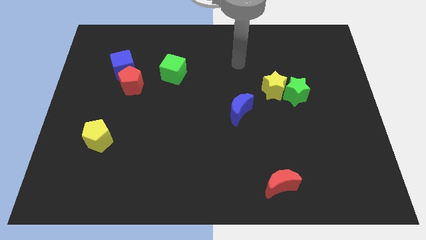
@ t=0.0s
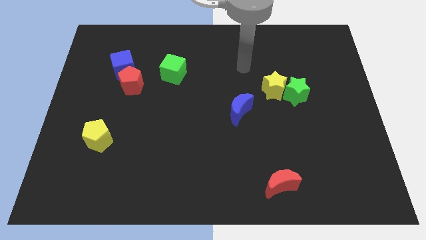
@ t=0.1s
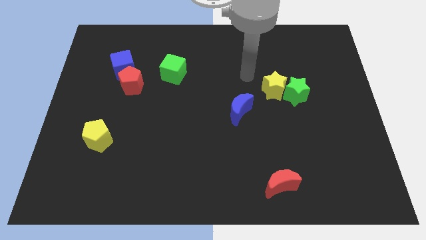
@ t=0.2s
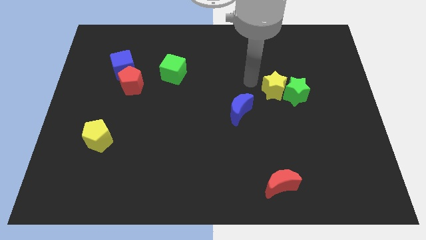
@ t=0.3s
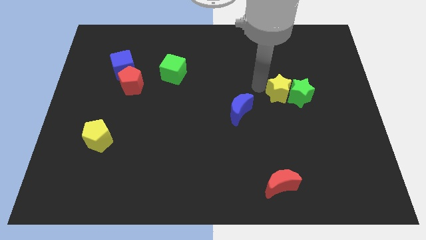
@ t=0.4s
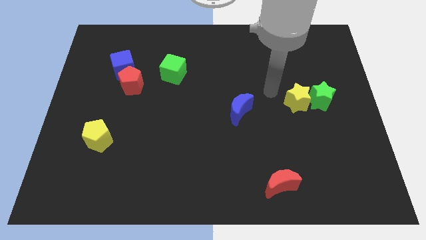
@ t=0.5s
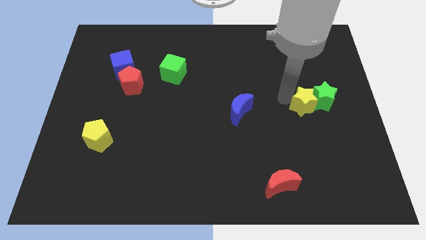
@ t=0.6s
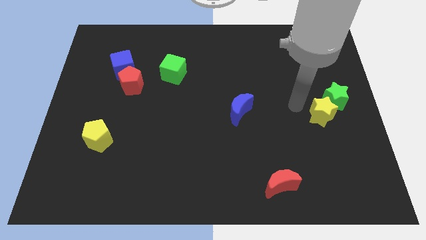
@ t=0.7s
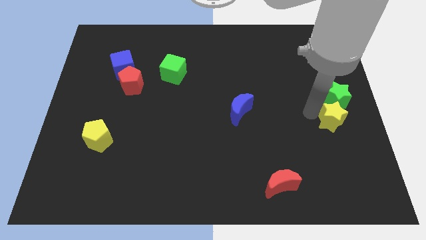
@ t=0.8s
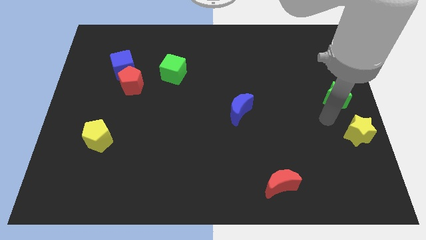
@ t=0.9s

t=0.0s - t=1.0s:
pull the green star apart from the yellow star

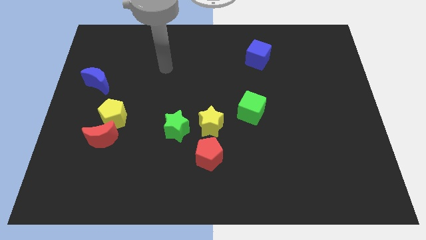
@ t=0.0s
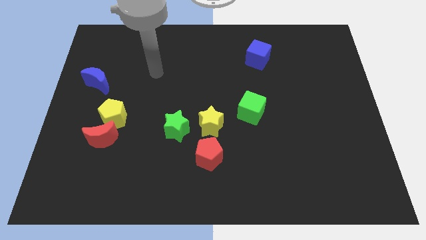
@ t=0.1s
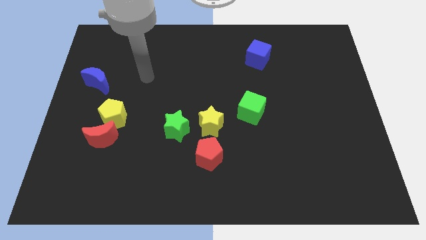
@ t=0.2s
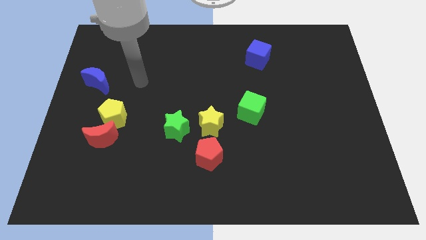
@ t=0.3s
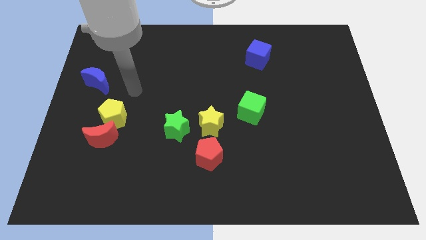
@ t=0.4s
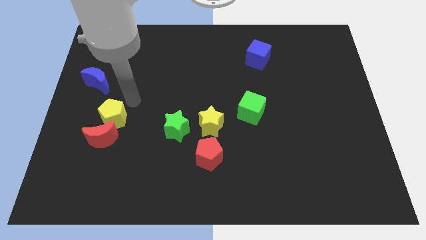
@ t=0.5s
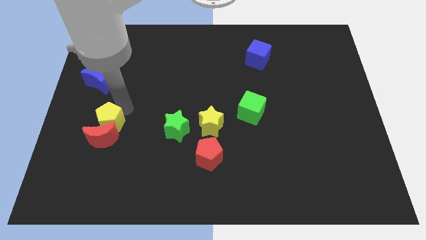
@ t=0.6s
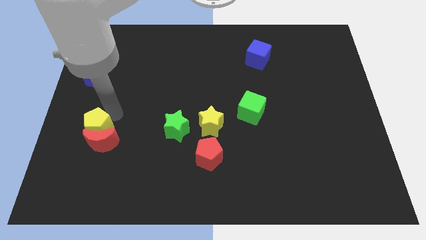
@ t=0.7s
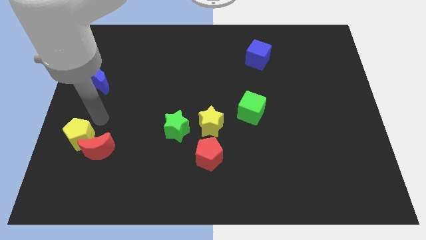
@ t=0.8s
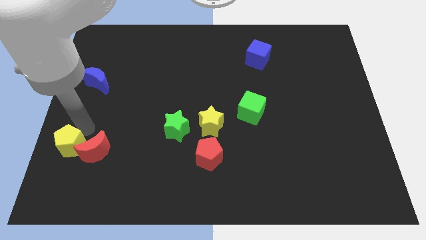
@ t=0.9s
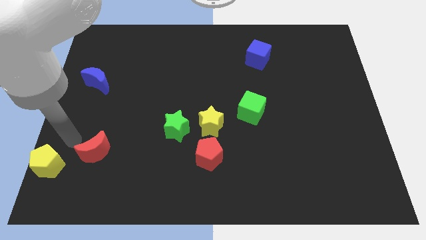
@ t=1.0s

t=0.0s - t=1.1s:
pull the red moon apart from the yellow pentagon

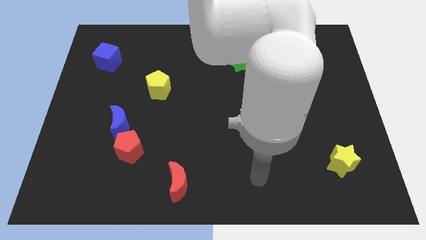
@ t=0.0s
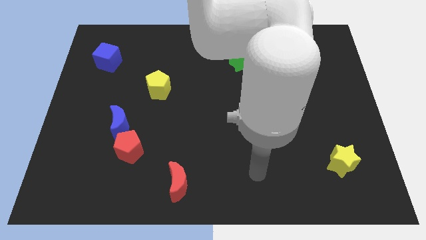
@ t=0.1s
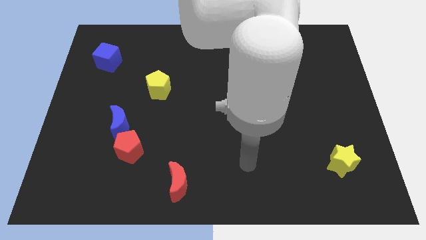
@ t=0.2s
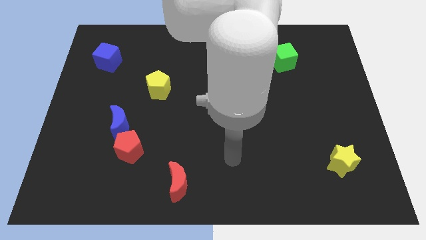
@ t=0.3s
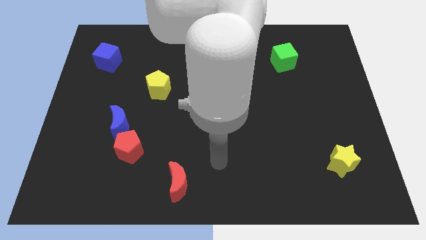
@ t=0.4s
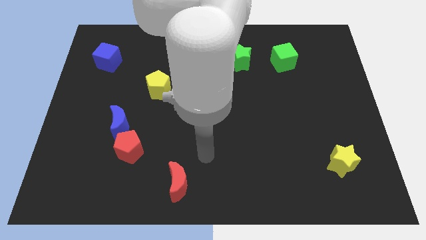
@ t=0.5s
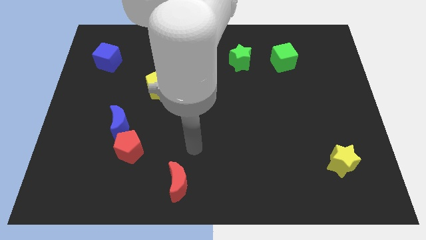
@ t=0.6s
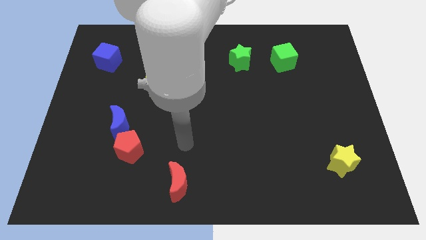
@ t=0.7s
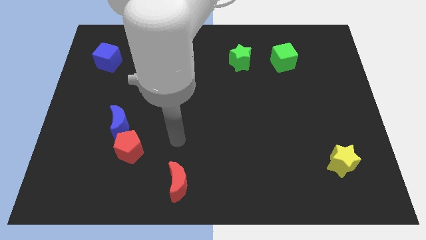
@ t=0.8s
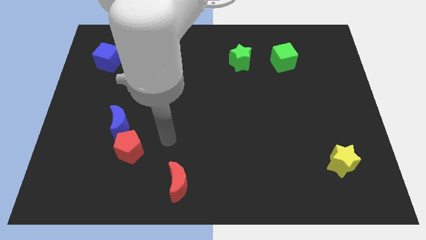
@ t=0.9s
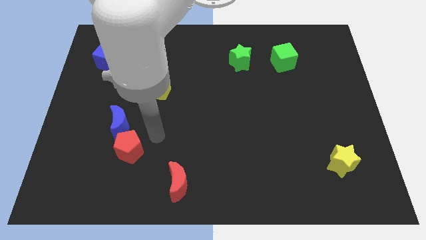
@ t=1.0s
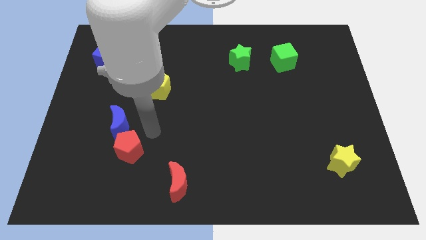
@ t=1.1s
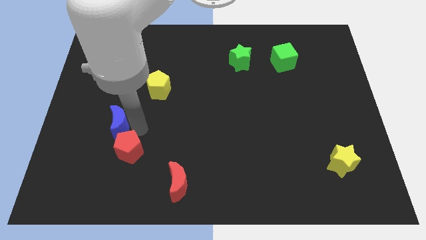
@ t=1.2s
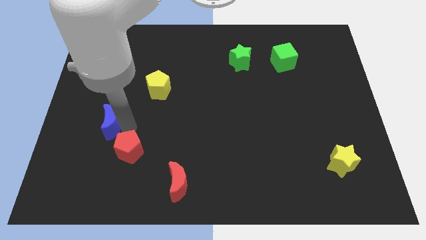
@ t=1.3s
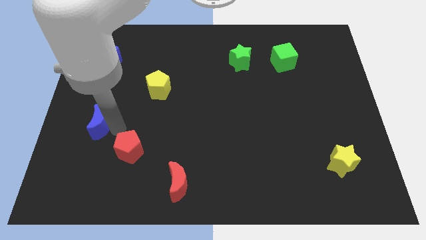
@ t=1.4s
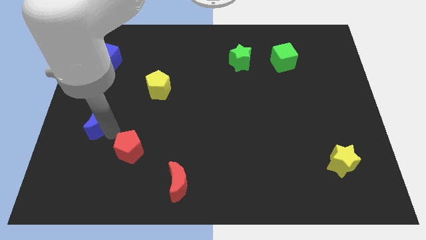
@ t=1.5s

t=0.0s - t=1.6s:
move the red pentagon away from the blue moon

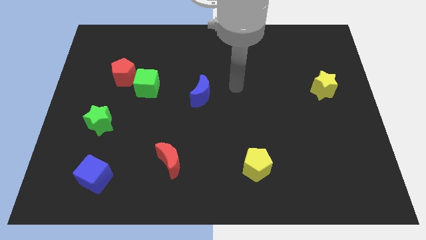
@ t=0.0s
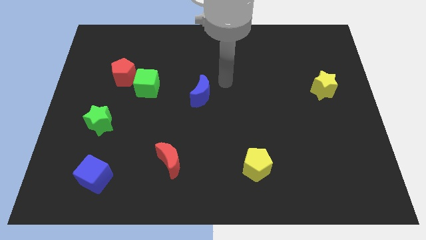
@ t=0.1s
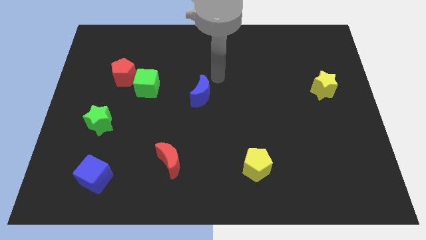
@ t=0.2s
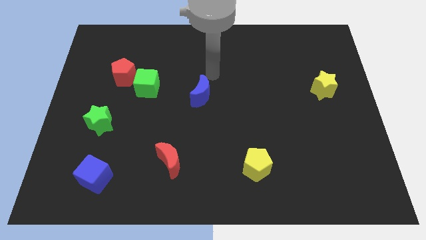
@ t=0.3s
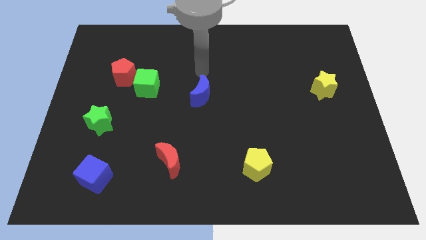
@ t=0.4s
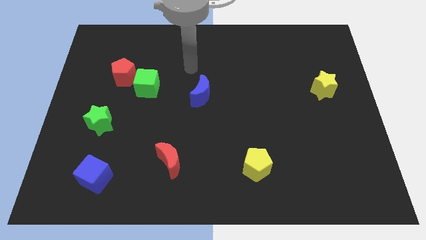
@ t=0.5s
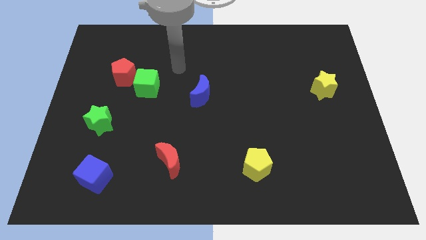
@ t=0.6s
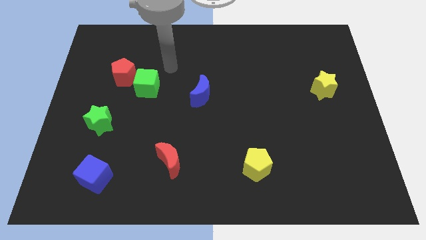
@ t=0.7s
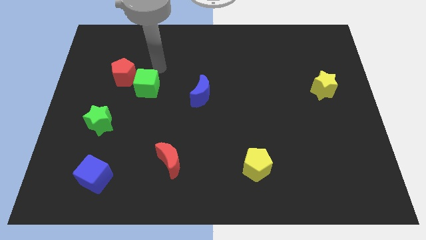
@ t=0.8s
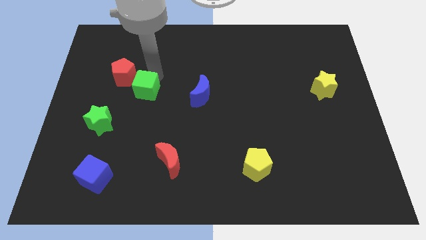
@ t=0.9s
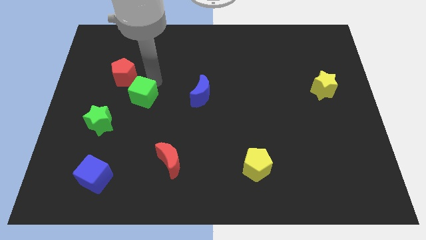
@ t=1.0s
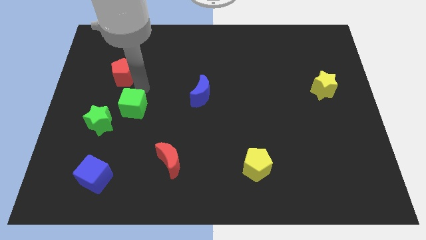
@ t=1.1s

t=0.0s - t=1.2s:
separate the red pentagon from the green cube

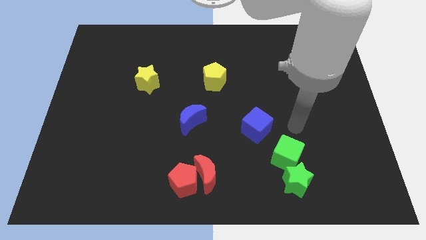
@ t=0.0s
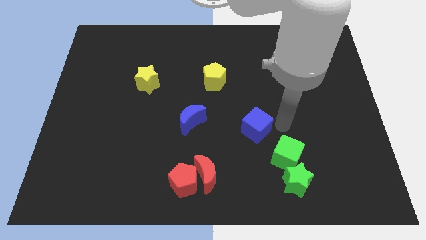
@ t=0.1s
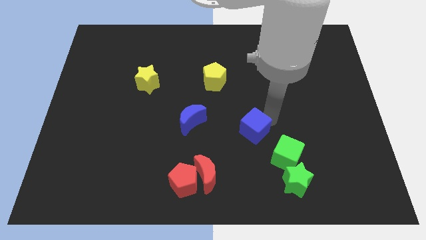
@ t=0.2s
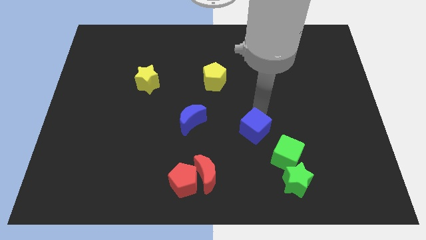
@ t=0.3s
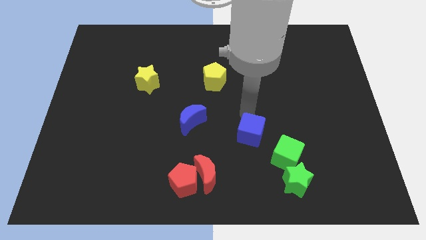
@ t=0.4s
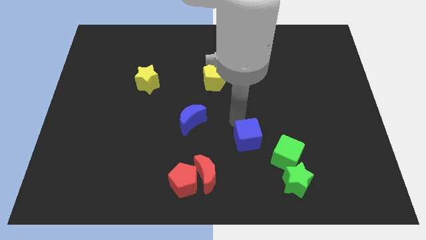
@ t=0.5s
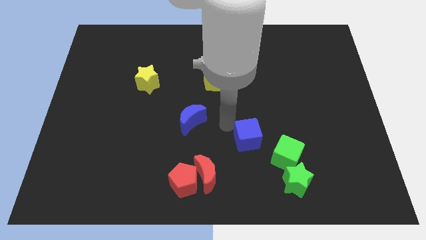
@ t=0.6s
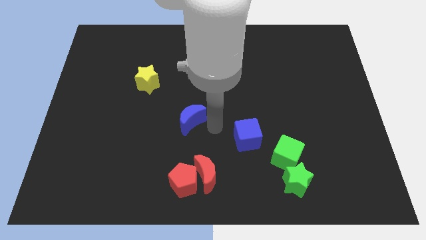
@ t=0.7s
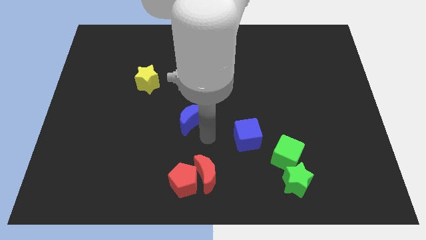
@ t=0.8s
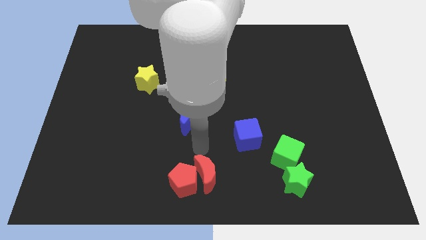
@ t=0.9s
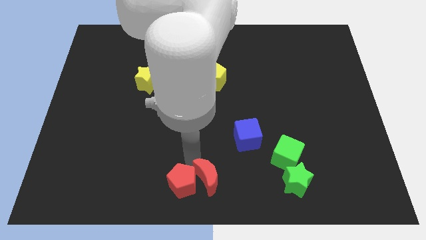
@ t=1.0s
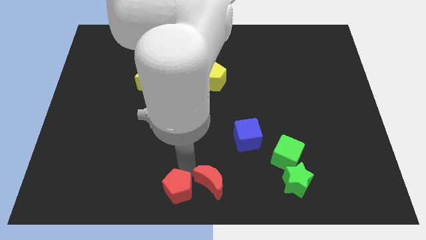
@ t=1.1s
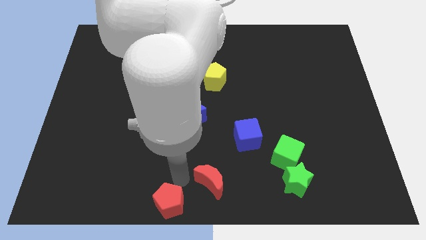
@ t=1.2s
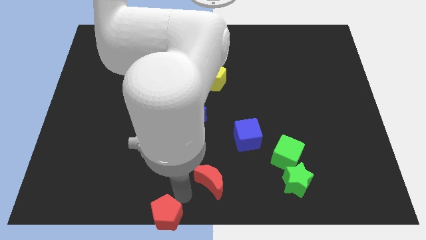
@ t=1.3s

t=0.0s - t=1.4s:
separate the red moon from the red pentagon

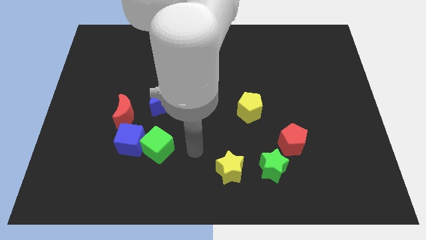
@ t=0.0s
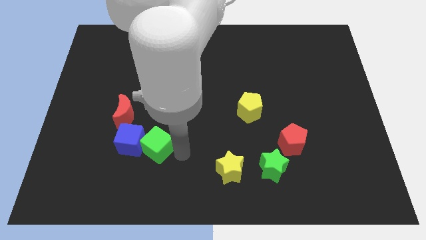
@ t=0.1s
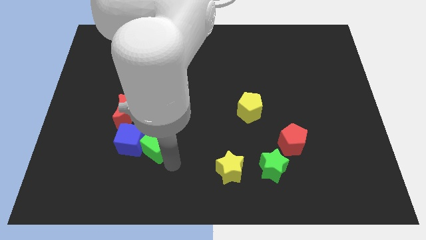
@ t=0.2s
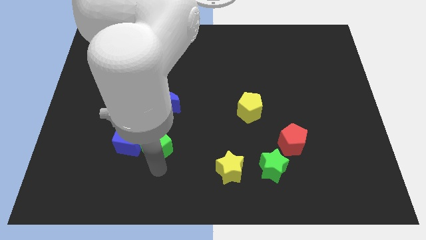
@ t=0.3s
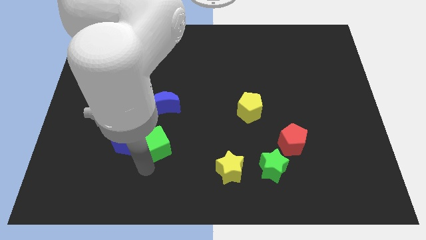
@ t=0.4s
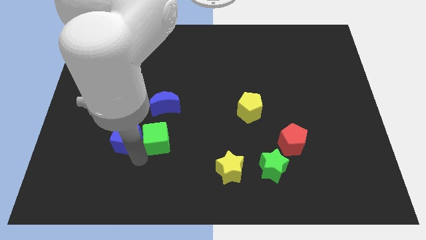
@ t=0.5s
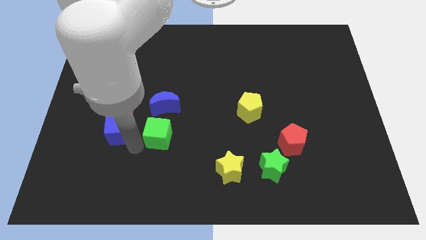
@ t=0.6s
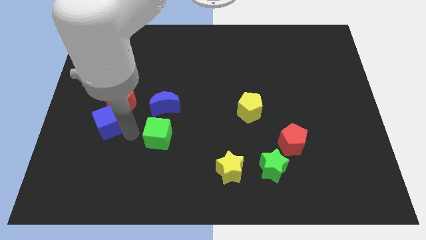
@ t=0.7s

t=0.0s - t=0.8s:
move the green cube away from the blue cube

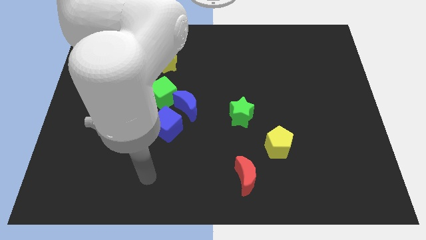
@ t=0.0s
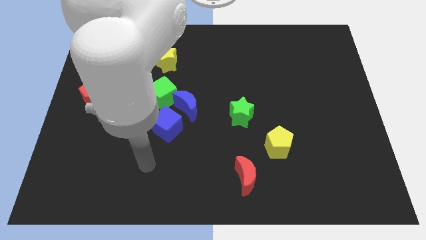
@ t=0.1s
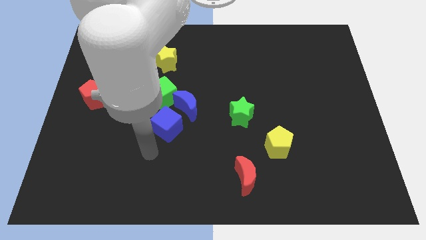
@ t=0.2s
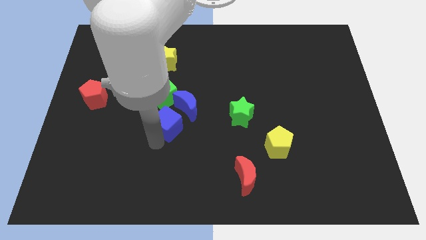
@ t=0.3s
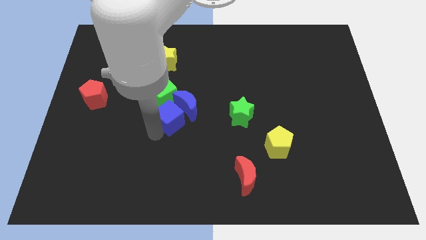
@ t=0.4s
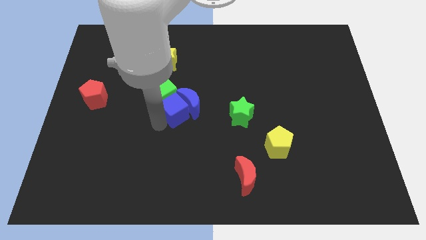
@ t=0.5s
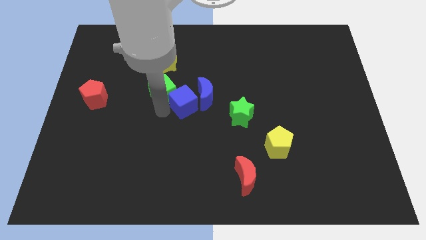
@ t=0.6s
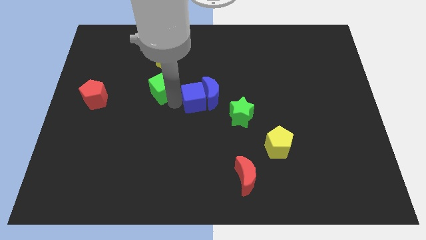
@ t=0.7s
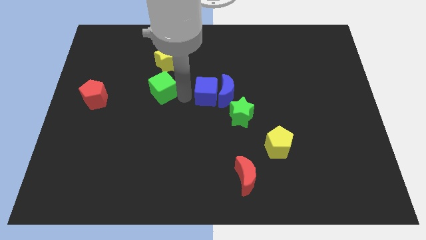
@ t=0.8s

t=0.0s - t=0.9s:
separate the blue moon from the green cube and blue cube

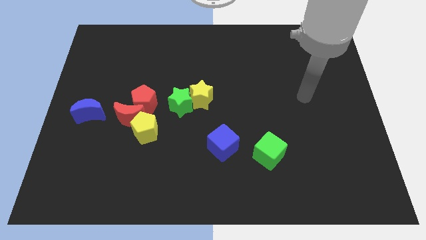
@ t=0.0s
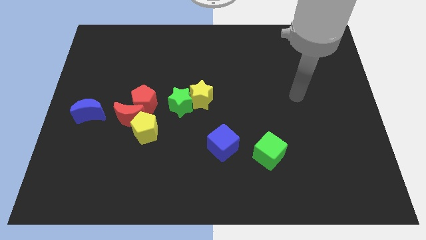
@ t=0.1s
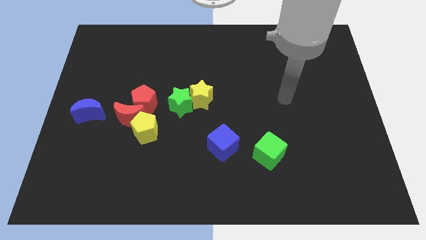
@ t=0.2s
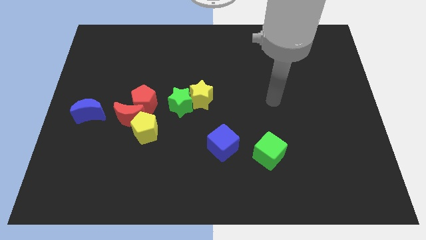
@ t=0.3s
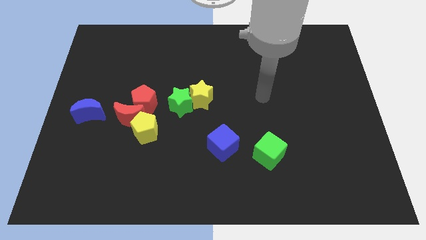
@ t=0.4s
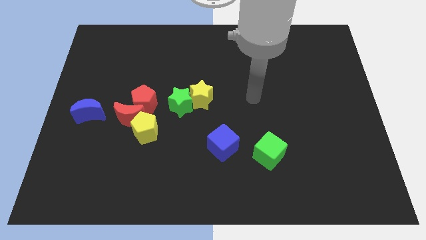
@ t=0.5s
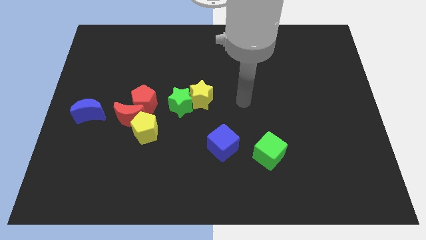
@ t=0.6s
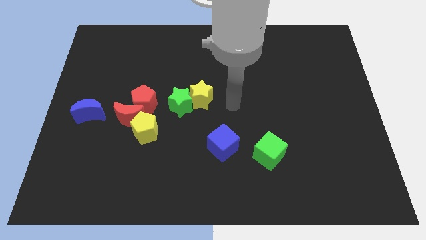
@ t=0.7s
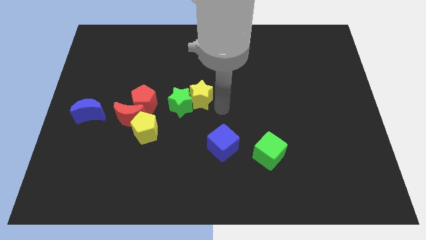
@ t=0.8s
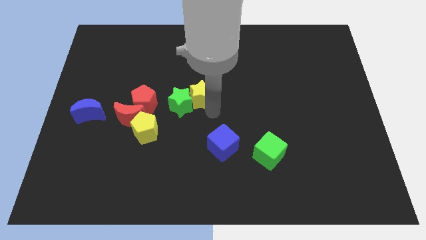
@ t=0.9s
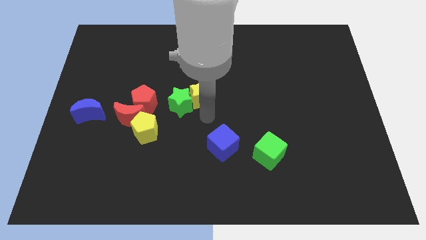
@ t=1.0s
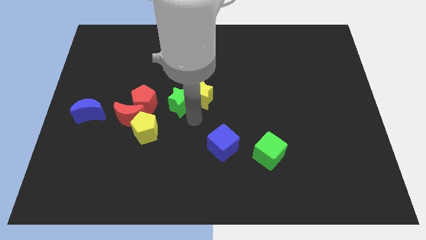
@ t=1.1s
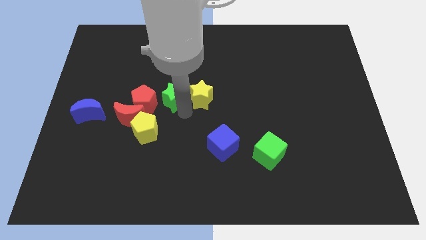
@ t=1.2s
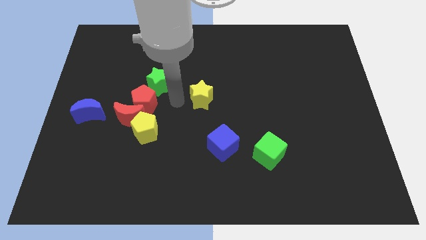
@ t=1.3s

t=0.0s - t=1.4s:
move the yellow star away from the green star
